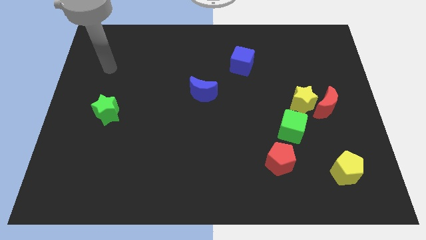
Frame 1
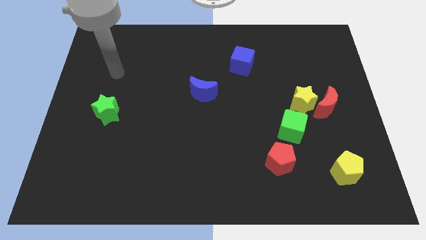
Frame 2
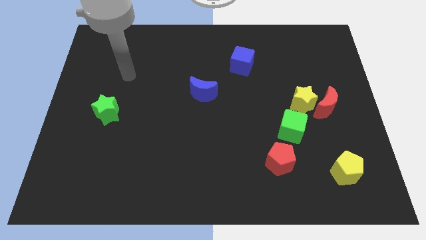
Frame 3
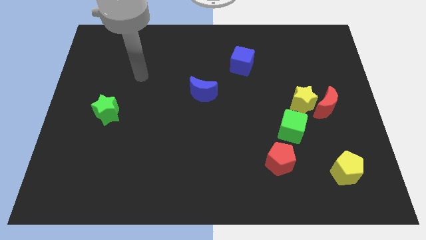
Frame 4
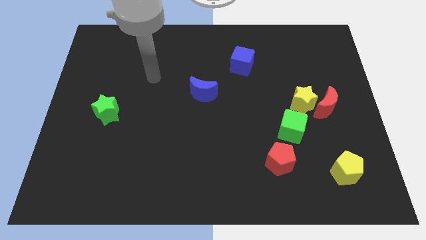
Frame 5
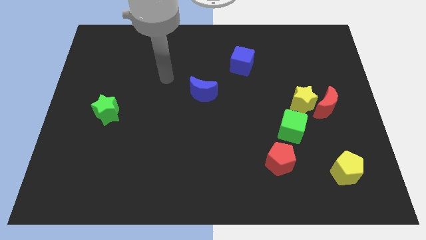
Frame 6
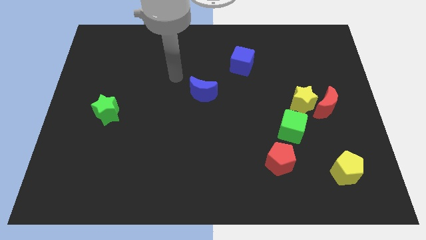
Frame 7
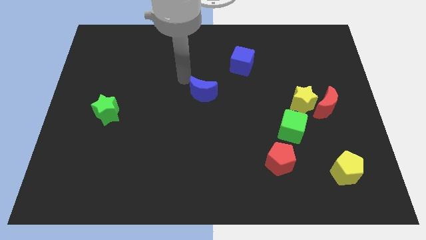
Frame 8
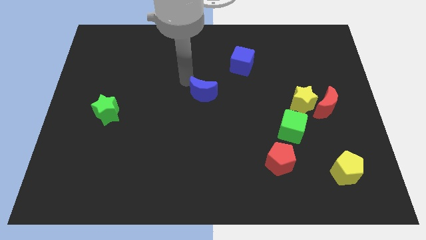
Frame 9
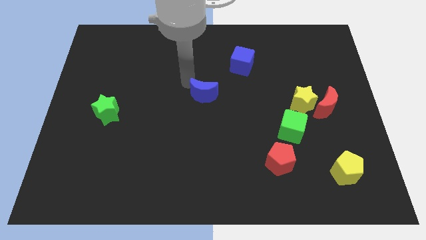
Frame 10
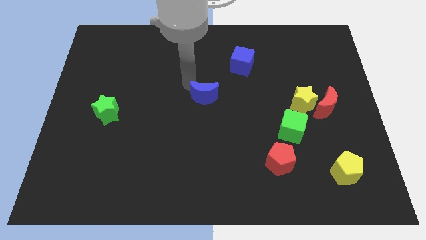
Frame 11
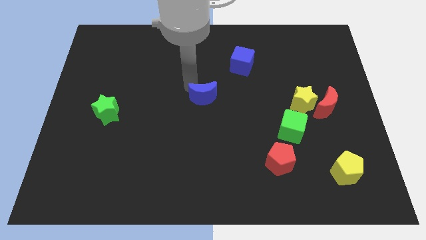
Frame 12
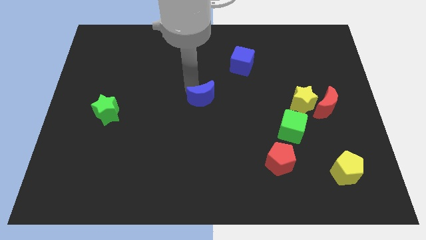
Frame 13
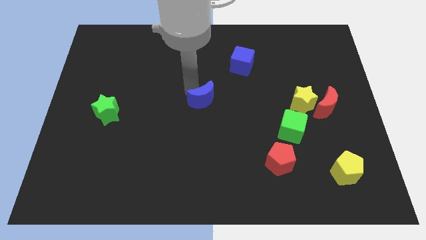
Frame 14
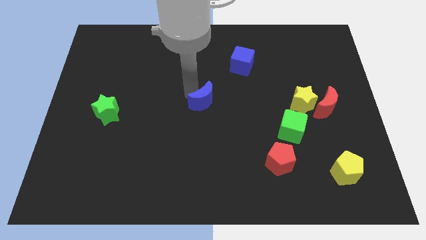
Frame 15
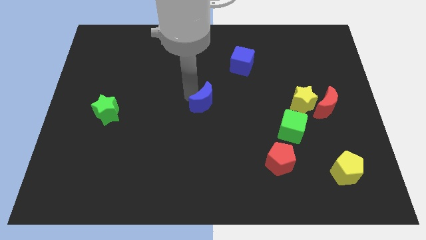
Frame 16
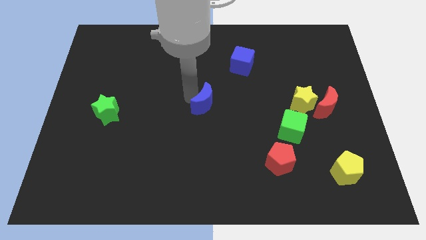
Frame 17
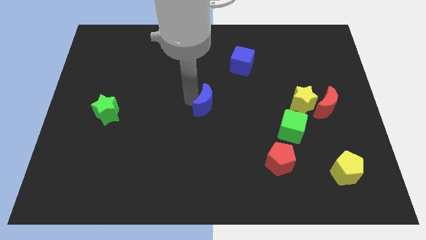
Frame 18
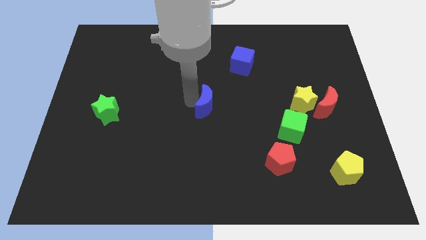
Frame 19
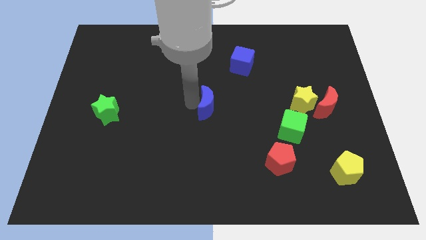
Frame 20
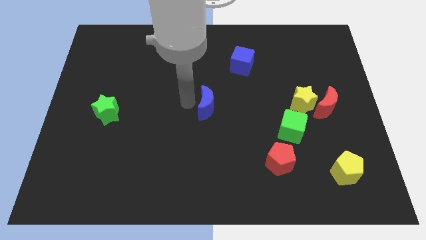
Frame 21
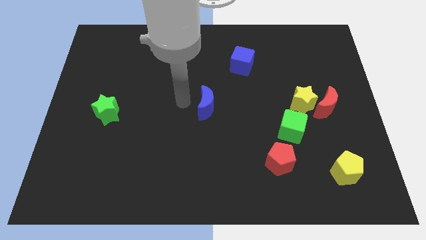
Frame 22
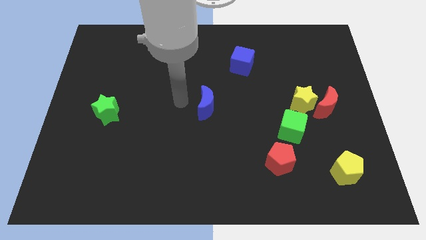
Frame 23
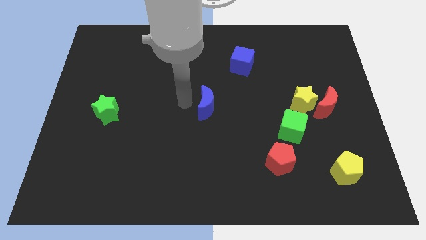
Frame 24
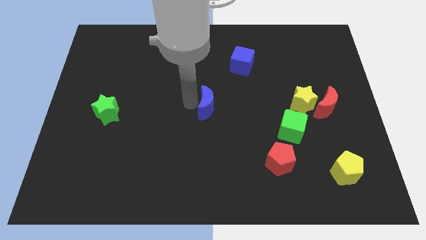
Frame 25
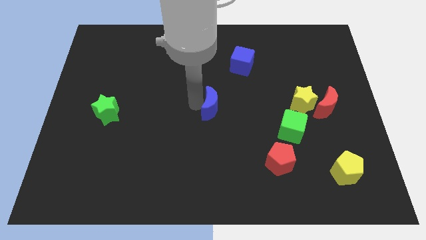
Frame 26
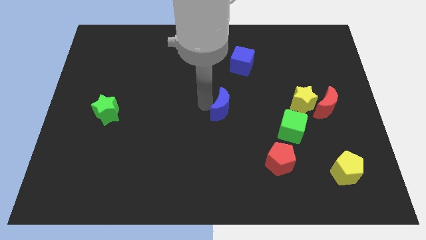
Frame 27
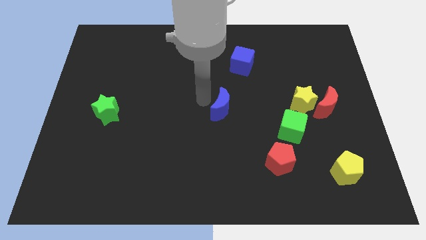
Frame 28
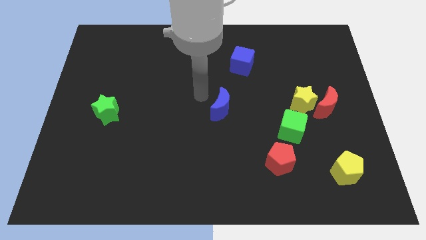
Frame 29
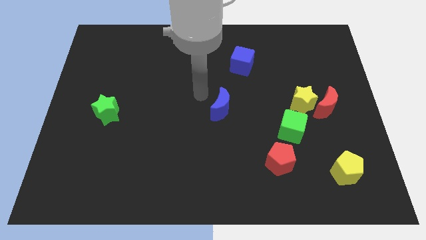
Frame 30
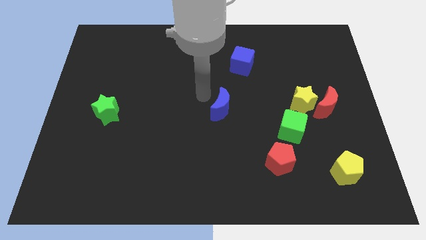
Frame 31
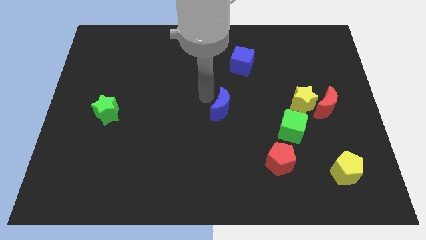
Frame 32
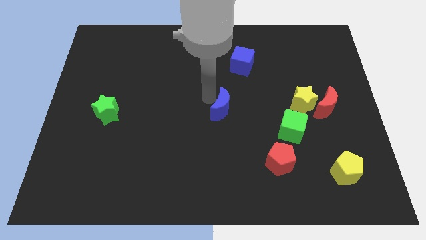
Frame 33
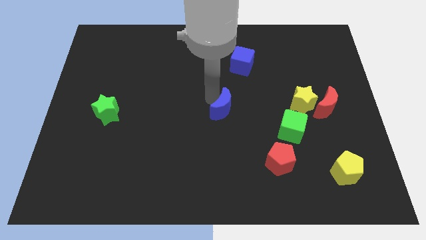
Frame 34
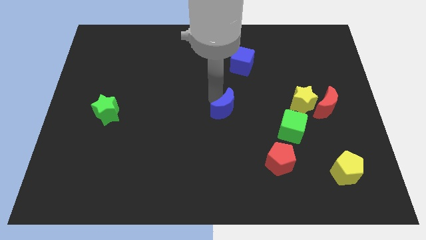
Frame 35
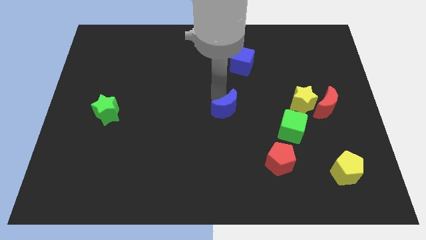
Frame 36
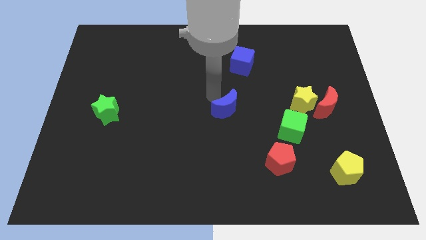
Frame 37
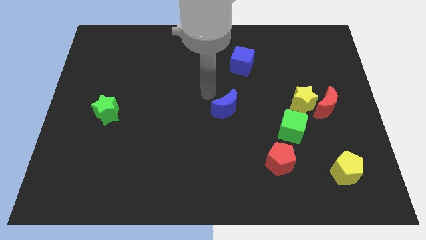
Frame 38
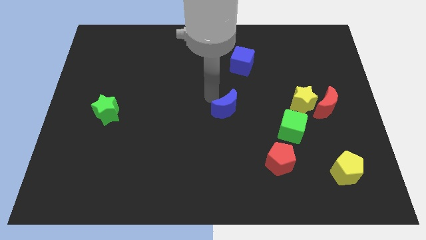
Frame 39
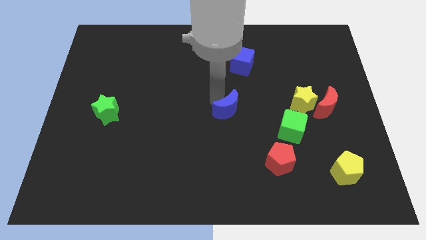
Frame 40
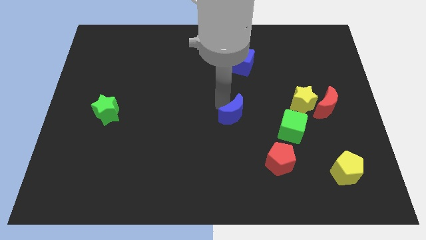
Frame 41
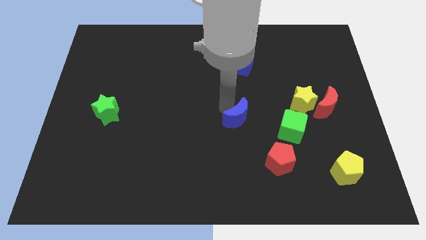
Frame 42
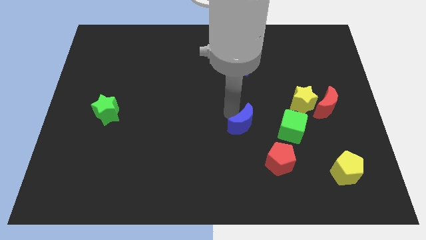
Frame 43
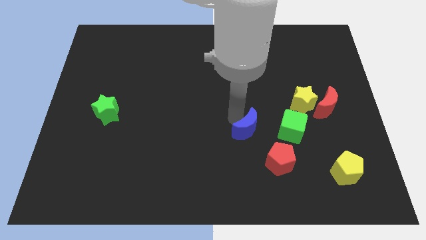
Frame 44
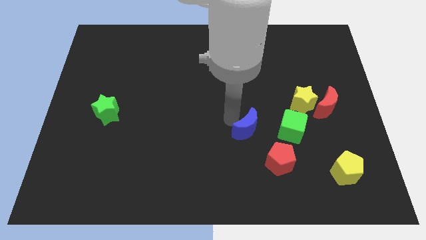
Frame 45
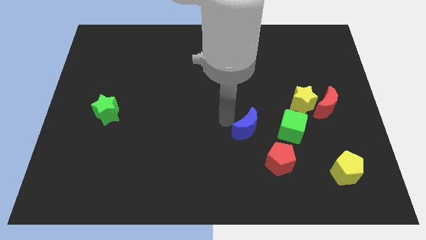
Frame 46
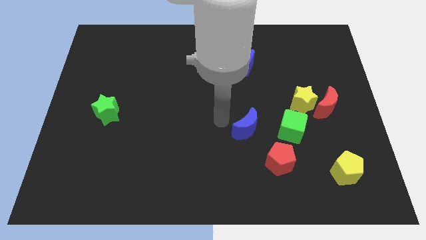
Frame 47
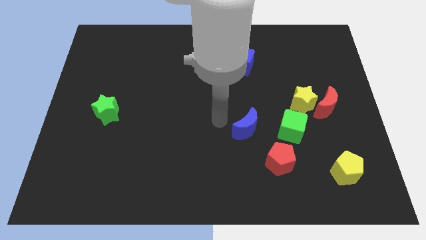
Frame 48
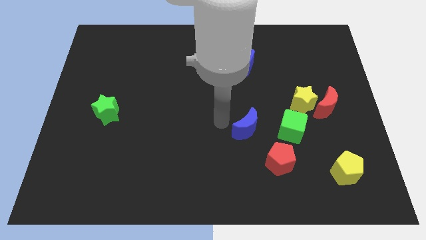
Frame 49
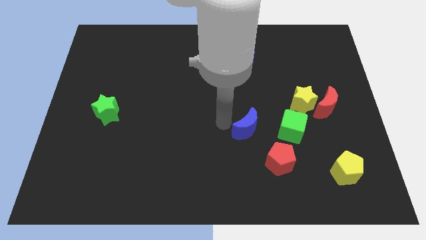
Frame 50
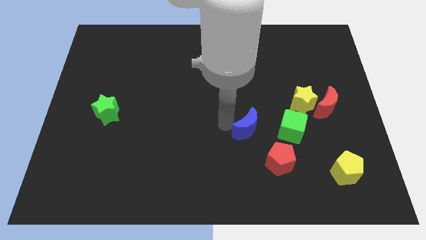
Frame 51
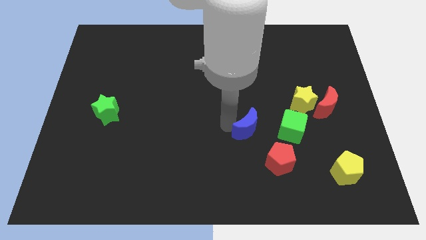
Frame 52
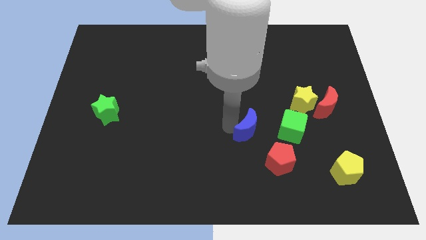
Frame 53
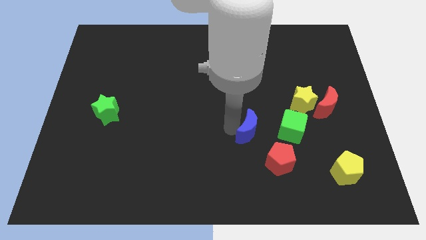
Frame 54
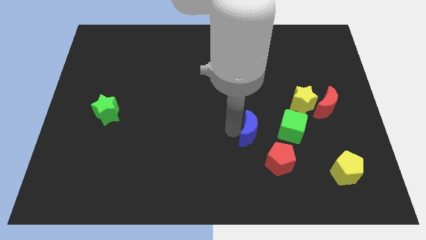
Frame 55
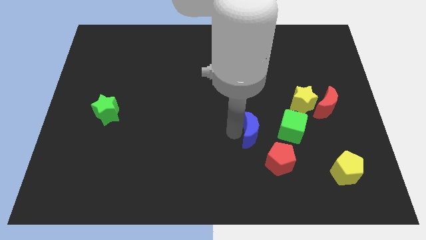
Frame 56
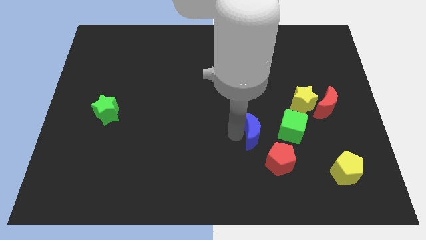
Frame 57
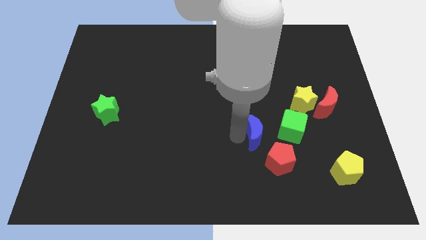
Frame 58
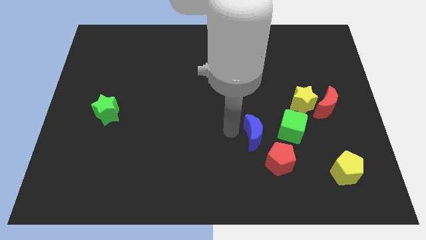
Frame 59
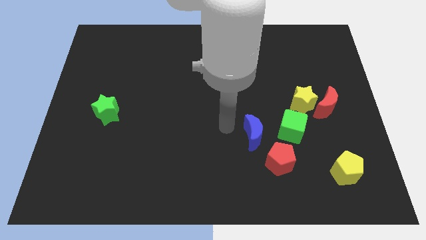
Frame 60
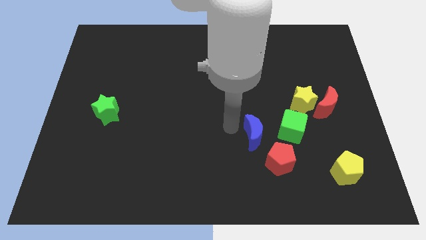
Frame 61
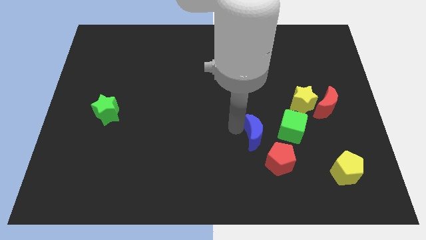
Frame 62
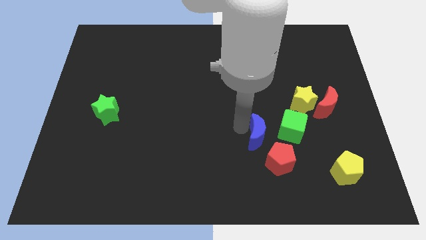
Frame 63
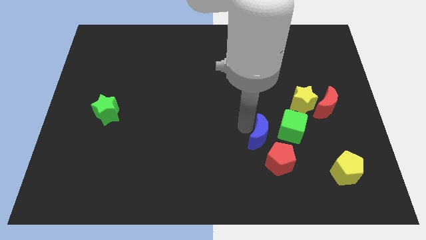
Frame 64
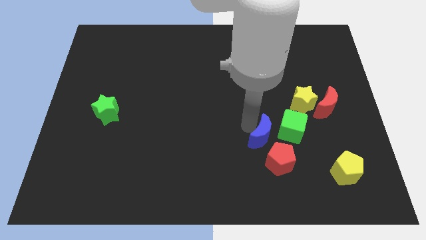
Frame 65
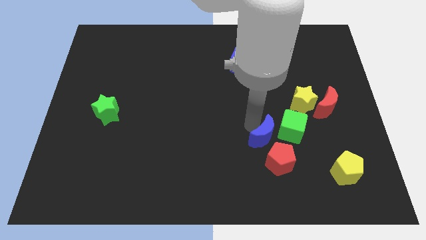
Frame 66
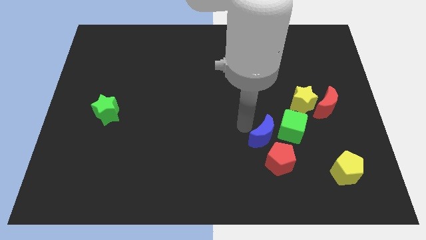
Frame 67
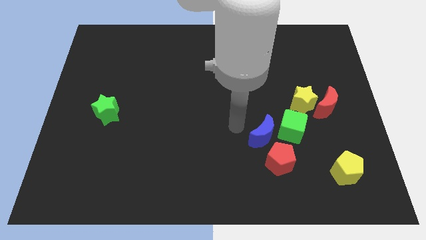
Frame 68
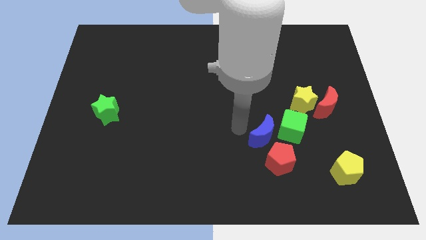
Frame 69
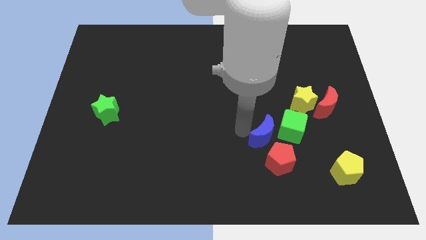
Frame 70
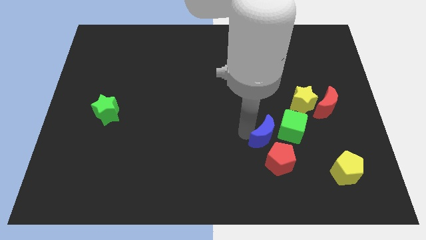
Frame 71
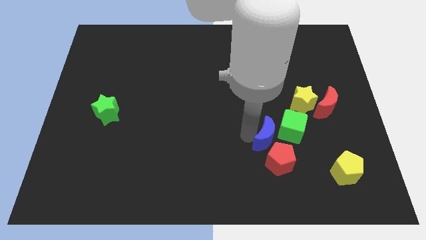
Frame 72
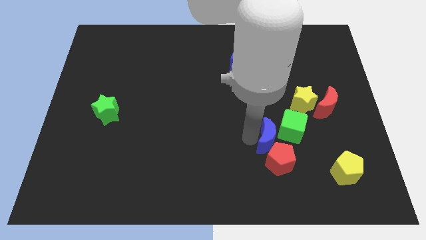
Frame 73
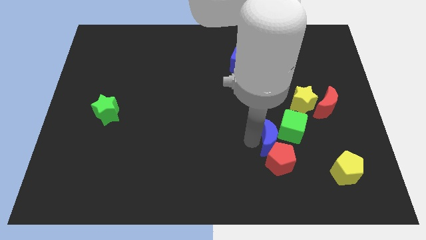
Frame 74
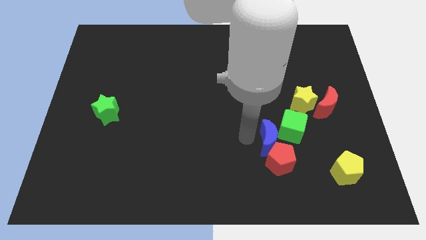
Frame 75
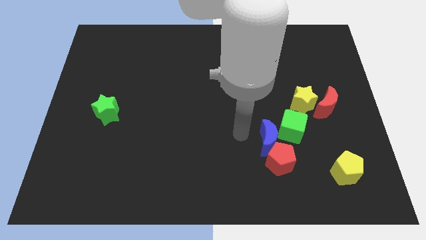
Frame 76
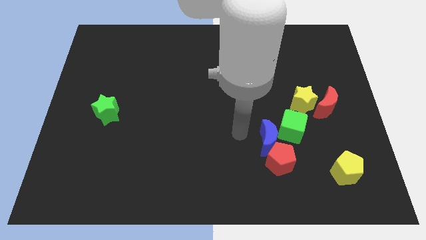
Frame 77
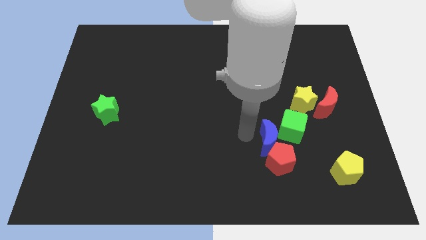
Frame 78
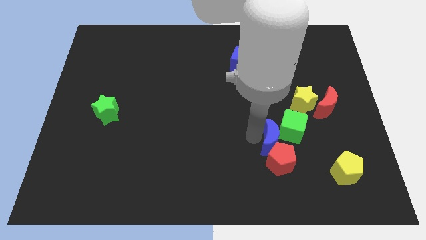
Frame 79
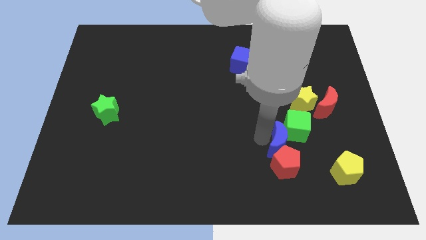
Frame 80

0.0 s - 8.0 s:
push the blue moon below the green cube
